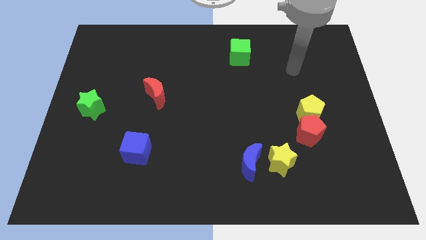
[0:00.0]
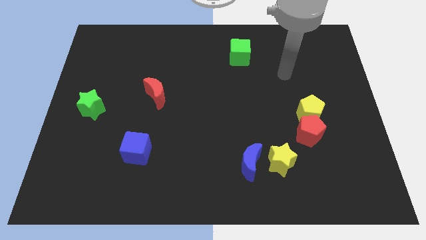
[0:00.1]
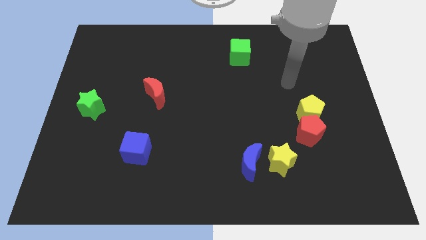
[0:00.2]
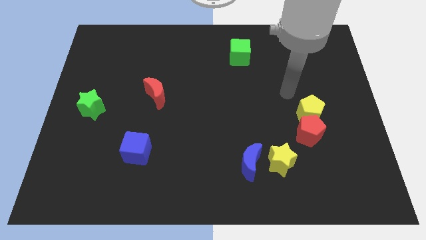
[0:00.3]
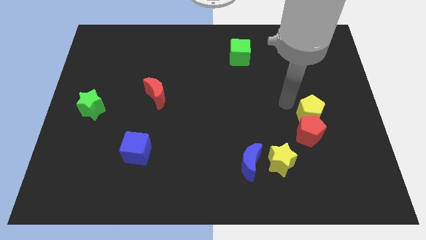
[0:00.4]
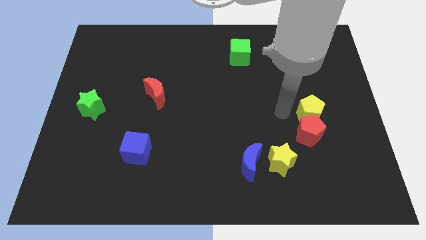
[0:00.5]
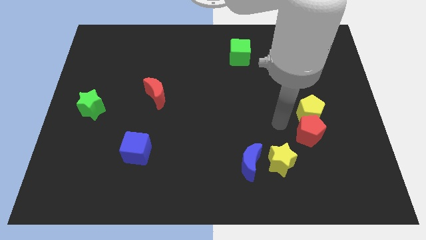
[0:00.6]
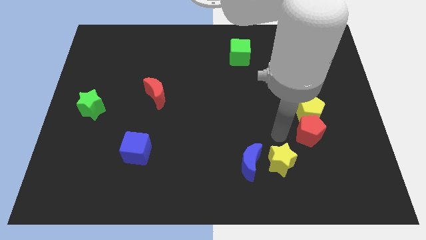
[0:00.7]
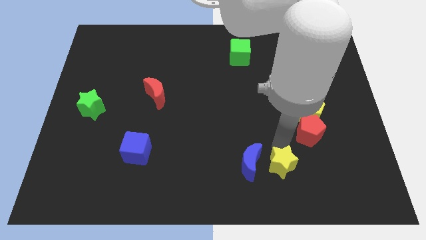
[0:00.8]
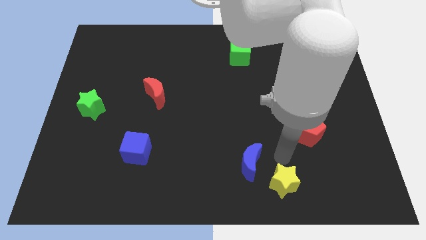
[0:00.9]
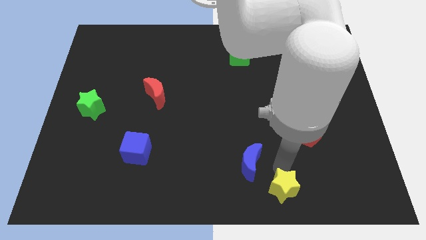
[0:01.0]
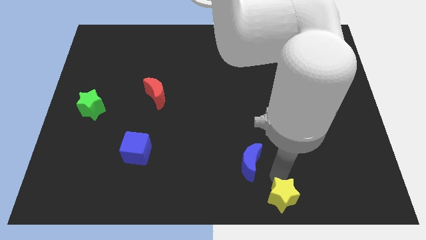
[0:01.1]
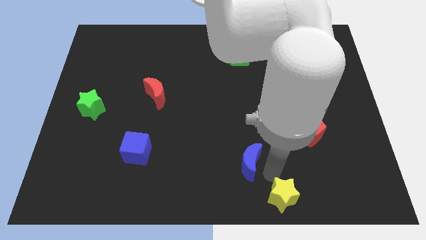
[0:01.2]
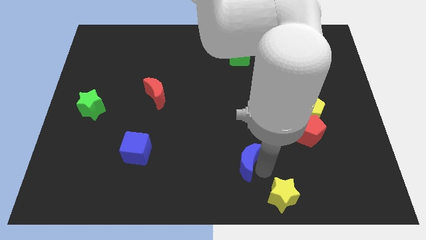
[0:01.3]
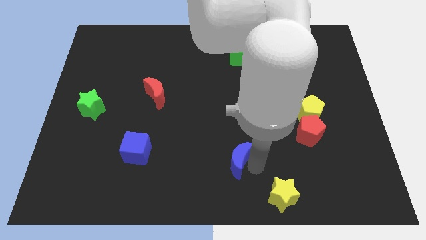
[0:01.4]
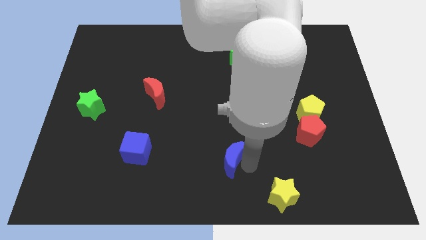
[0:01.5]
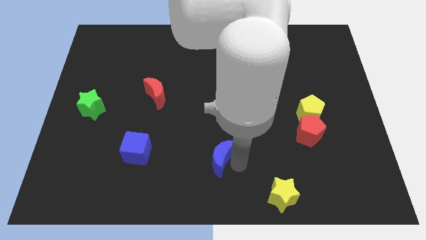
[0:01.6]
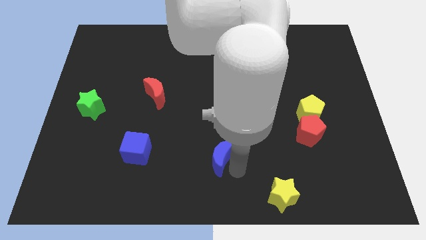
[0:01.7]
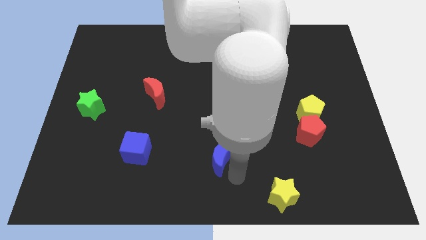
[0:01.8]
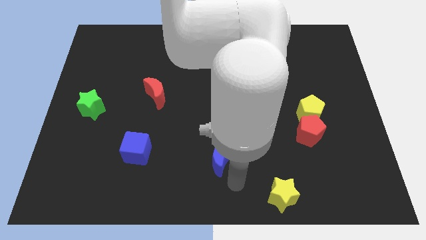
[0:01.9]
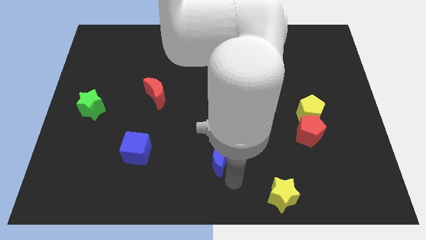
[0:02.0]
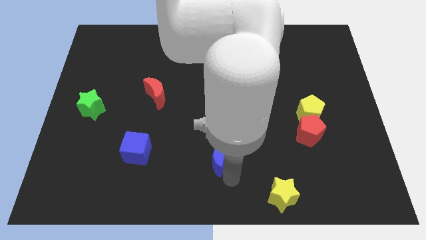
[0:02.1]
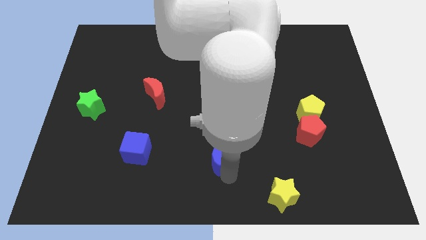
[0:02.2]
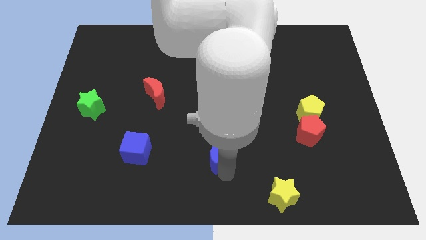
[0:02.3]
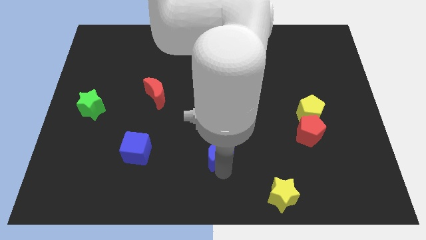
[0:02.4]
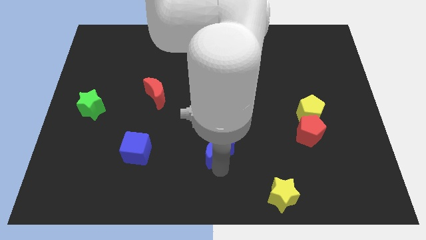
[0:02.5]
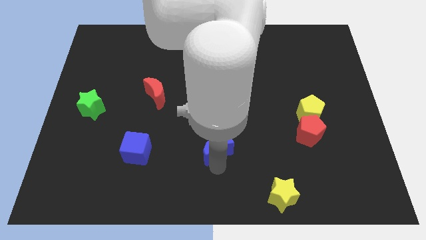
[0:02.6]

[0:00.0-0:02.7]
move the blue moon slightly up and to the left

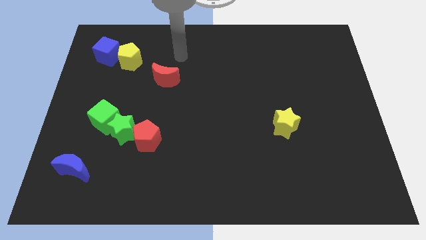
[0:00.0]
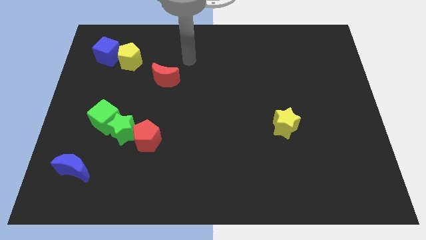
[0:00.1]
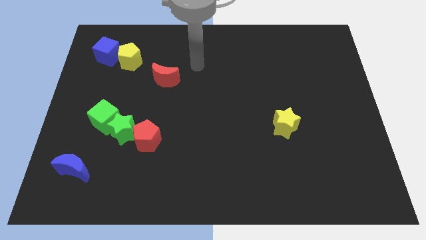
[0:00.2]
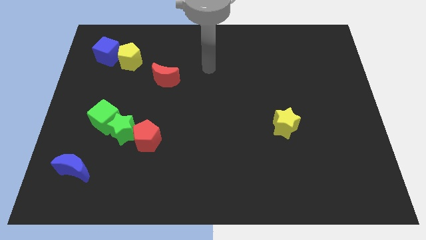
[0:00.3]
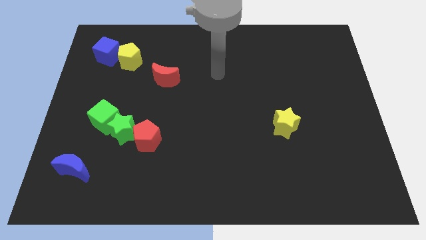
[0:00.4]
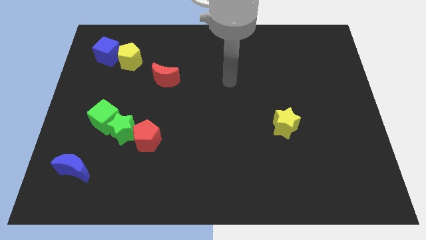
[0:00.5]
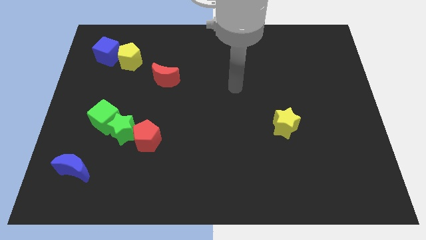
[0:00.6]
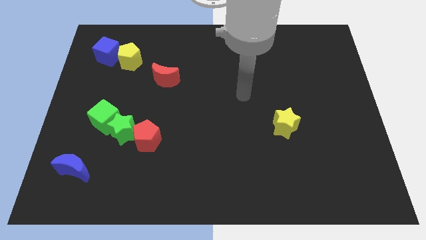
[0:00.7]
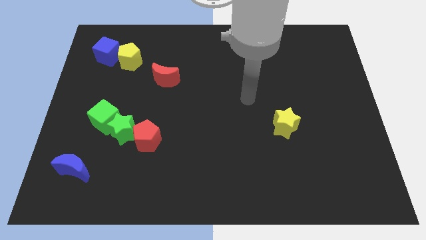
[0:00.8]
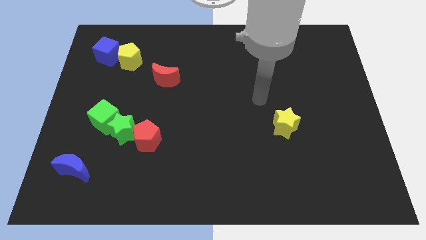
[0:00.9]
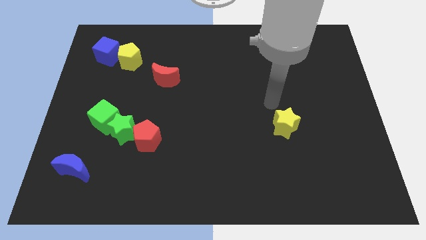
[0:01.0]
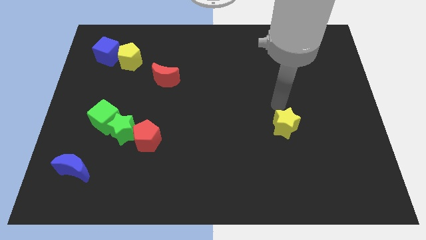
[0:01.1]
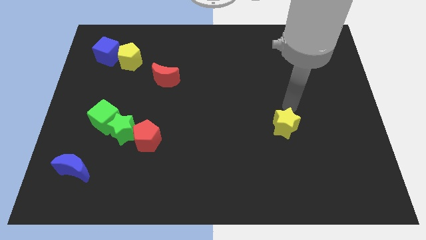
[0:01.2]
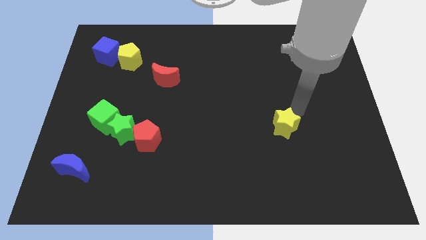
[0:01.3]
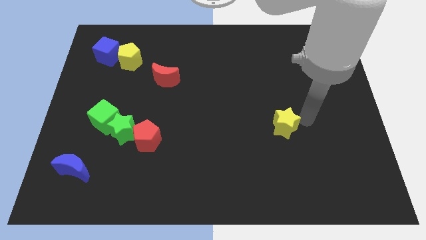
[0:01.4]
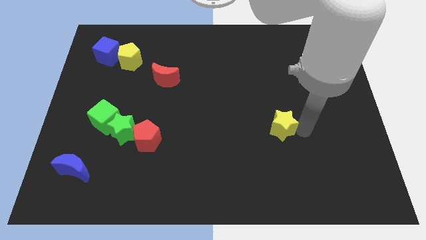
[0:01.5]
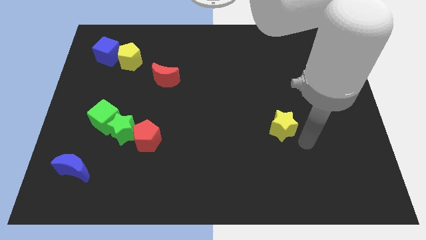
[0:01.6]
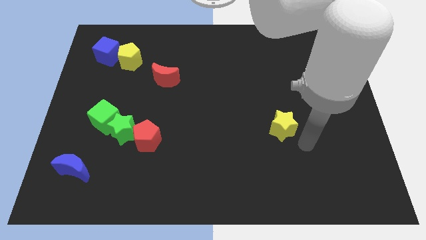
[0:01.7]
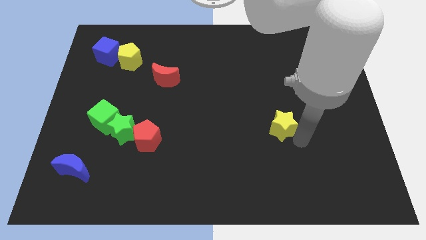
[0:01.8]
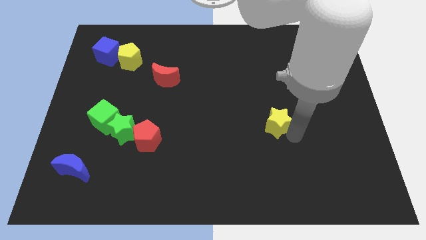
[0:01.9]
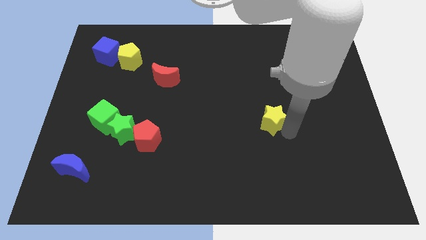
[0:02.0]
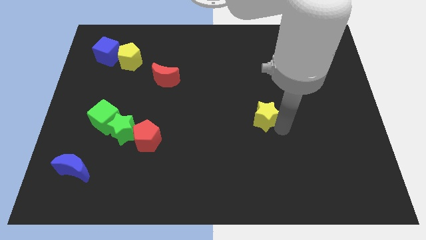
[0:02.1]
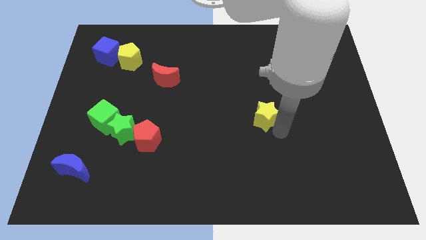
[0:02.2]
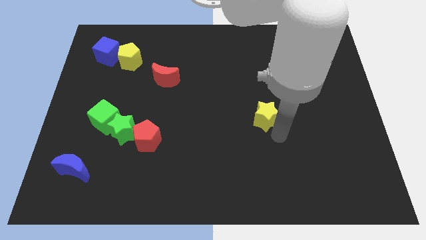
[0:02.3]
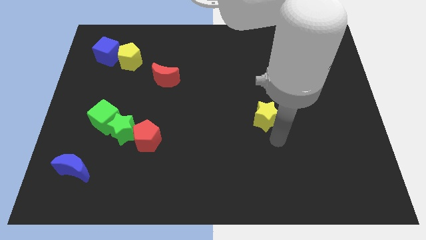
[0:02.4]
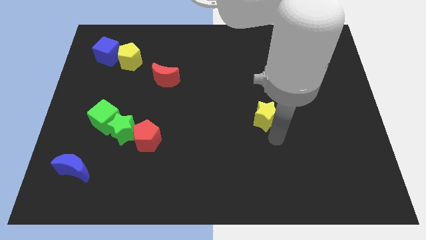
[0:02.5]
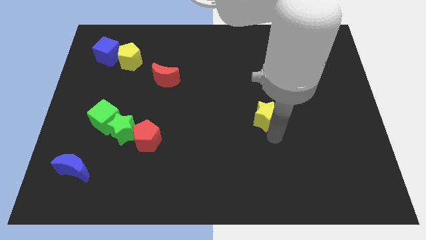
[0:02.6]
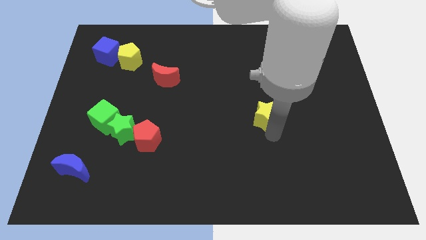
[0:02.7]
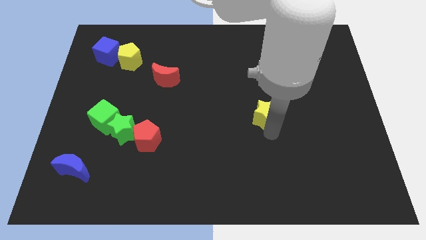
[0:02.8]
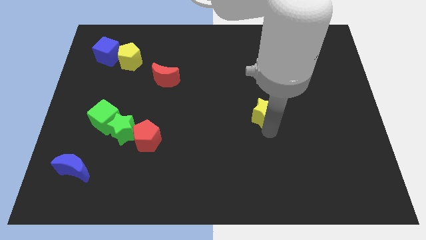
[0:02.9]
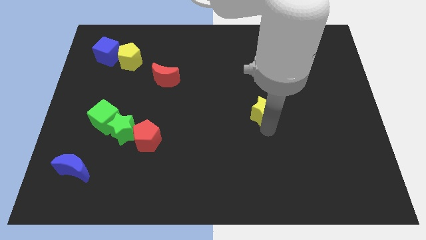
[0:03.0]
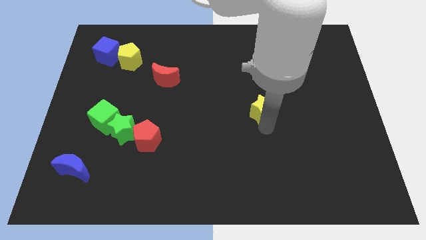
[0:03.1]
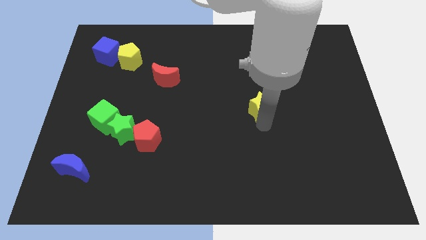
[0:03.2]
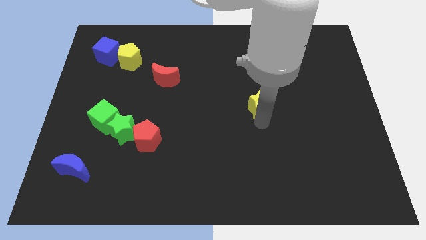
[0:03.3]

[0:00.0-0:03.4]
slide the yellow star slightly diagonally up and left

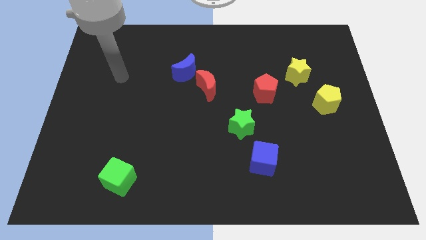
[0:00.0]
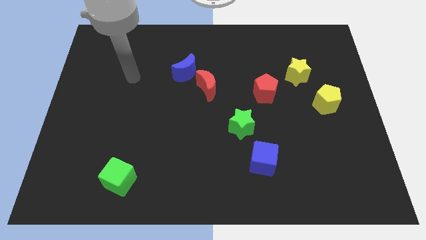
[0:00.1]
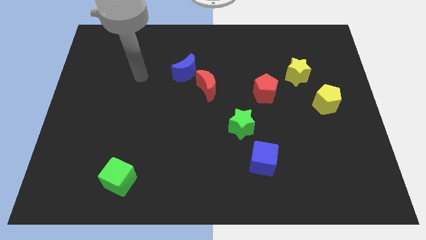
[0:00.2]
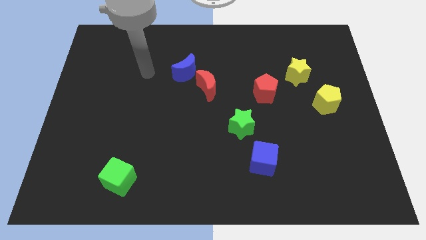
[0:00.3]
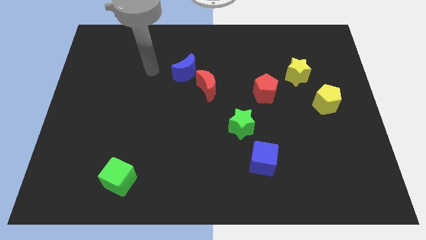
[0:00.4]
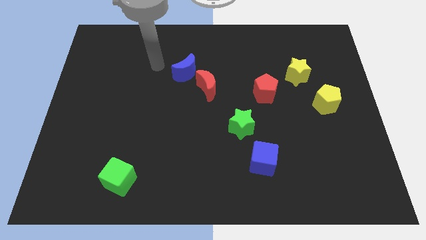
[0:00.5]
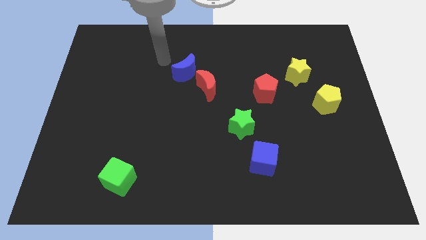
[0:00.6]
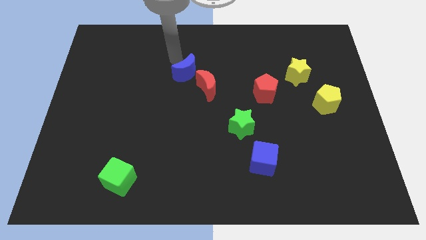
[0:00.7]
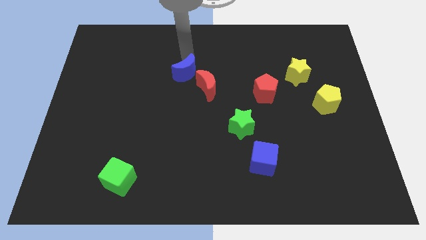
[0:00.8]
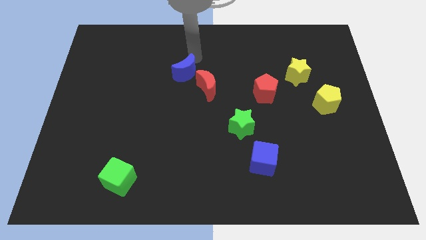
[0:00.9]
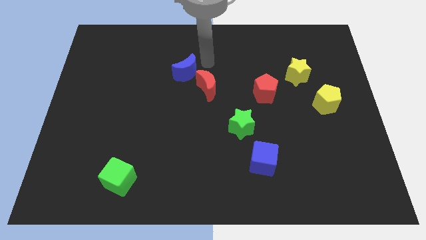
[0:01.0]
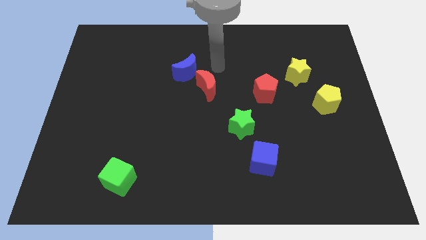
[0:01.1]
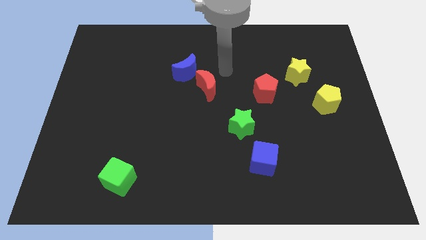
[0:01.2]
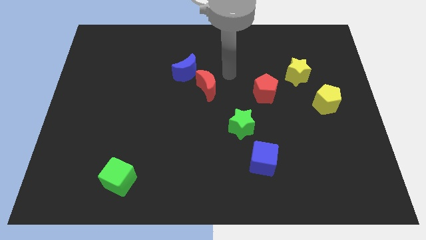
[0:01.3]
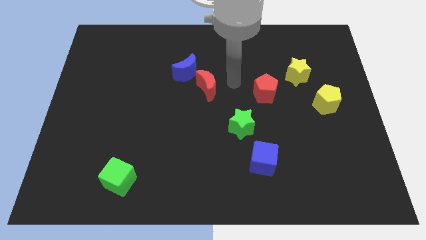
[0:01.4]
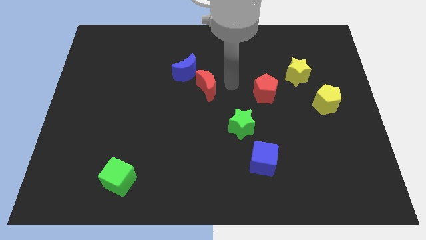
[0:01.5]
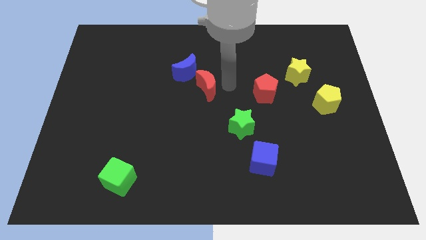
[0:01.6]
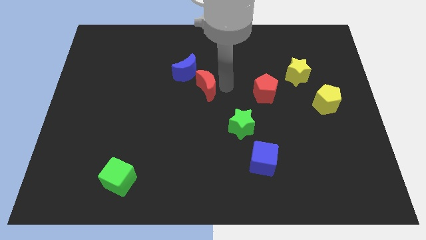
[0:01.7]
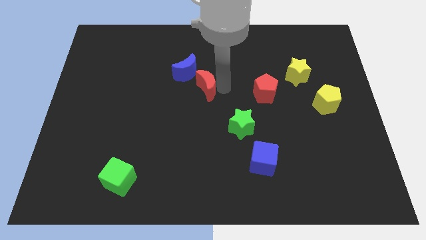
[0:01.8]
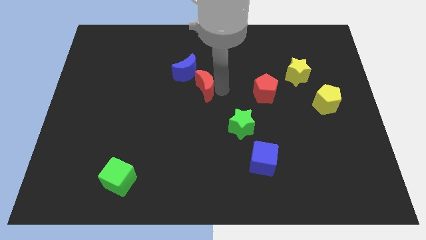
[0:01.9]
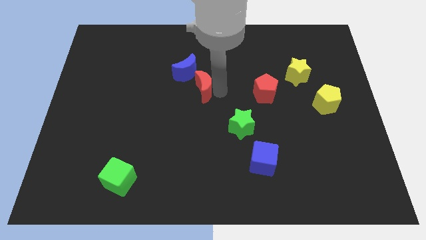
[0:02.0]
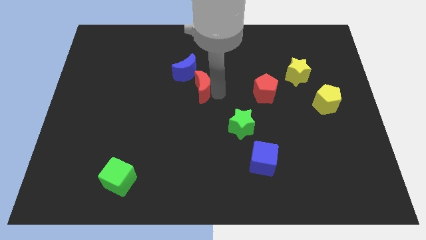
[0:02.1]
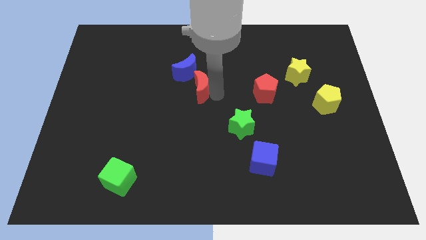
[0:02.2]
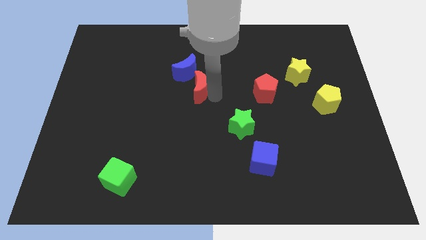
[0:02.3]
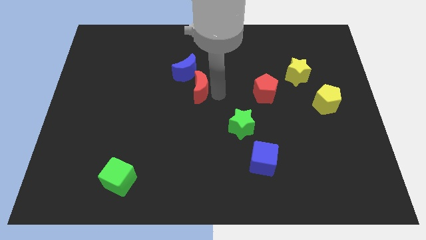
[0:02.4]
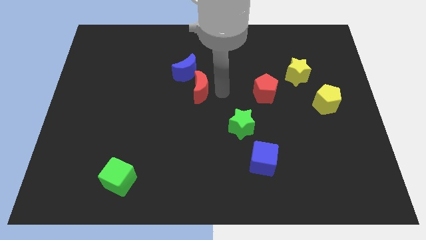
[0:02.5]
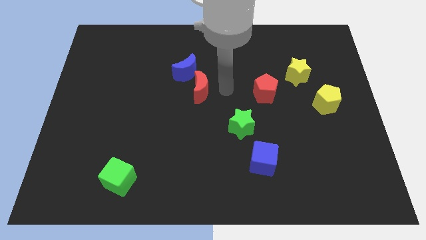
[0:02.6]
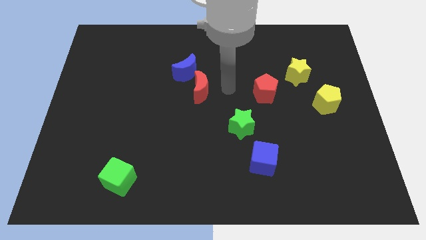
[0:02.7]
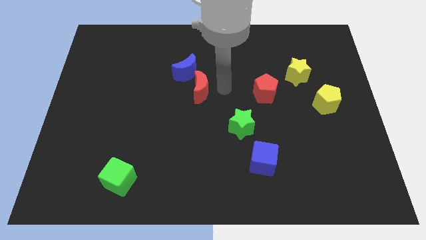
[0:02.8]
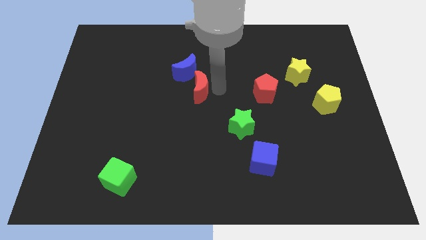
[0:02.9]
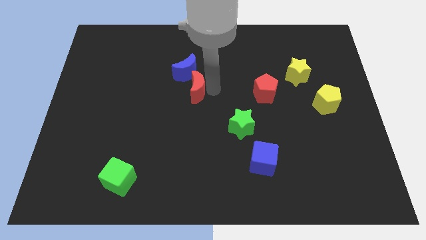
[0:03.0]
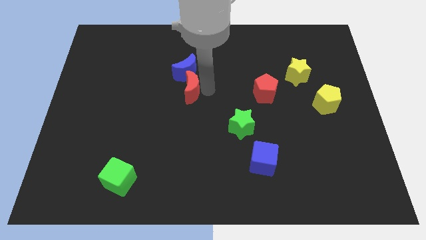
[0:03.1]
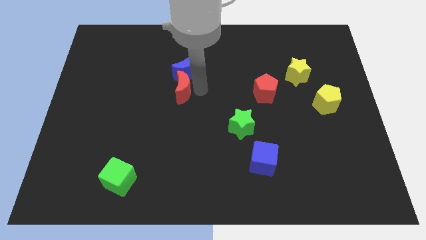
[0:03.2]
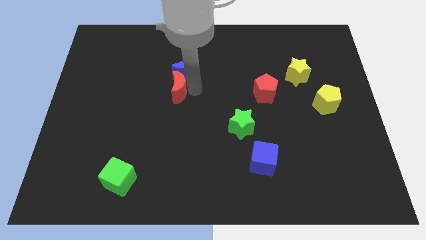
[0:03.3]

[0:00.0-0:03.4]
move the red moon somewhat to the left
